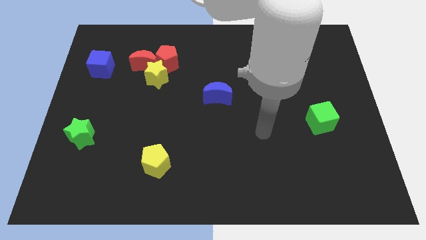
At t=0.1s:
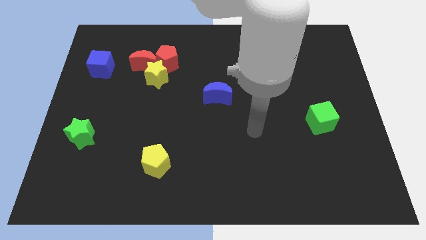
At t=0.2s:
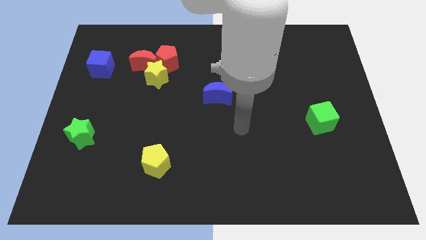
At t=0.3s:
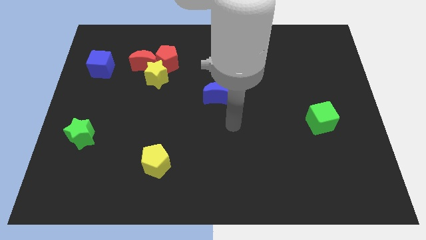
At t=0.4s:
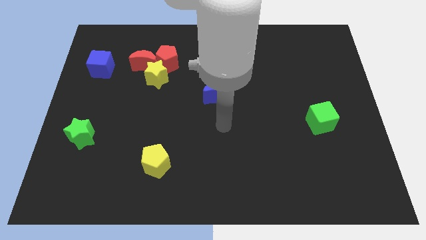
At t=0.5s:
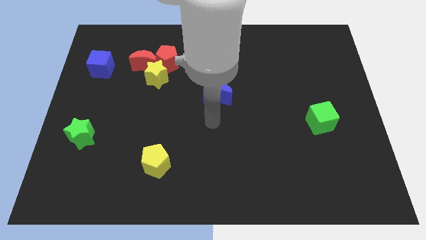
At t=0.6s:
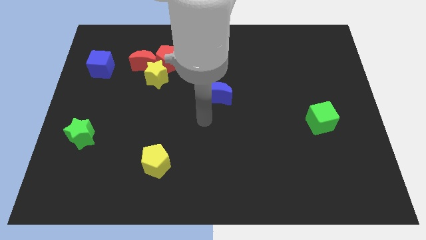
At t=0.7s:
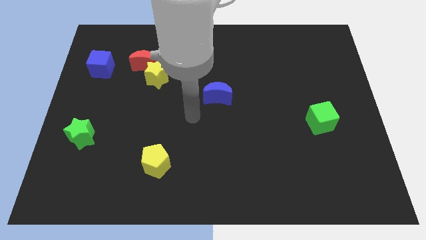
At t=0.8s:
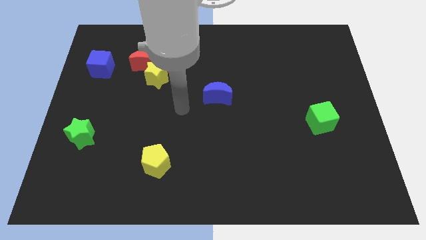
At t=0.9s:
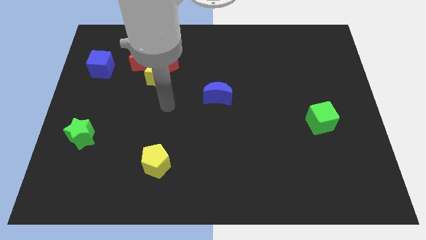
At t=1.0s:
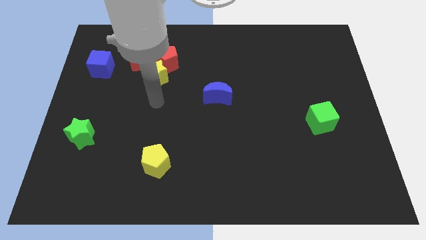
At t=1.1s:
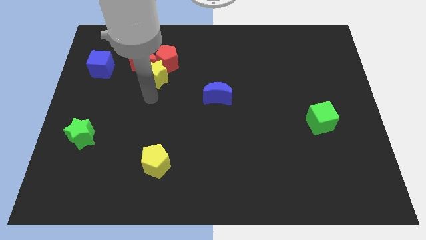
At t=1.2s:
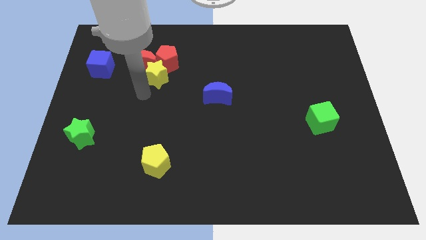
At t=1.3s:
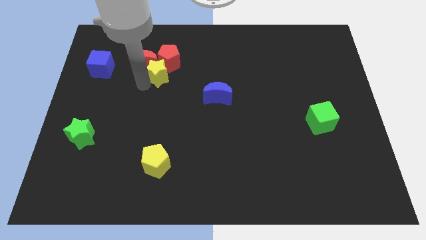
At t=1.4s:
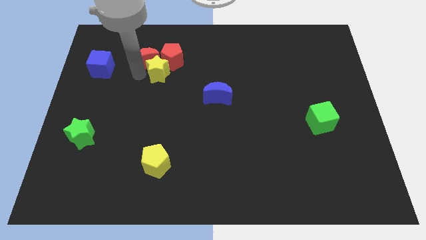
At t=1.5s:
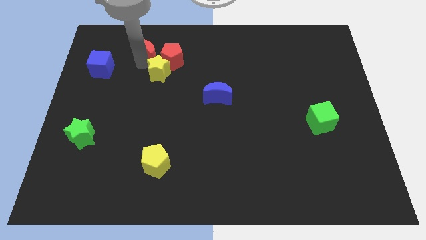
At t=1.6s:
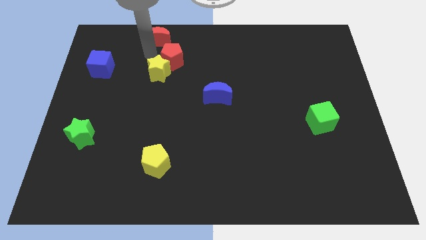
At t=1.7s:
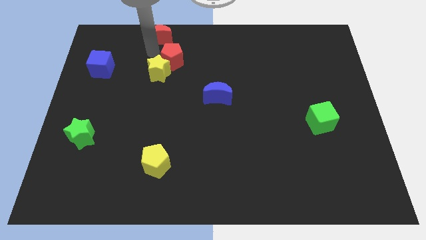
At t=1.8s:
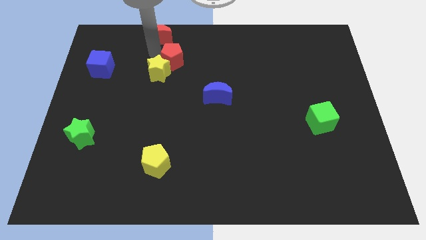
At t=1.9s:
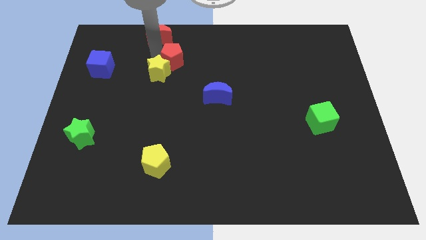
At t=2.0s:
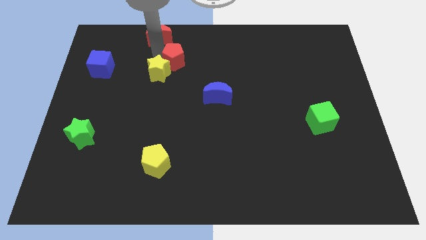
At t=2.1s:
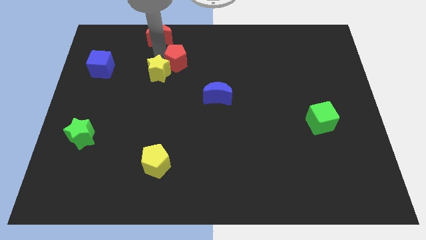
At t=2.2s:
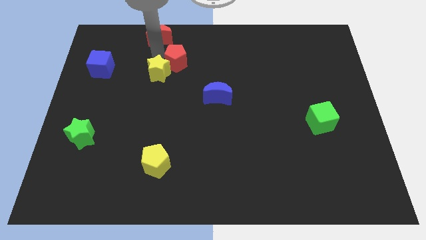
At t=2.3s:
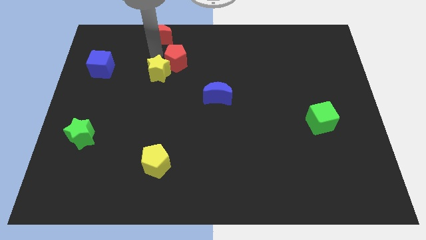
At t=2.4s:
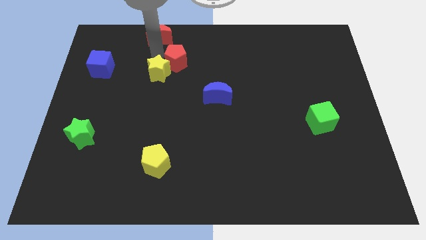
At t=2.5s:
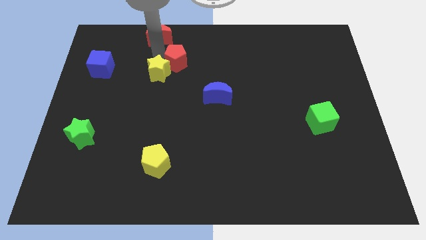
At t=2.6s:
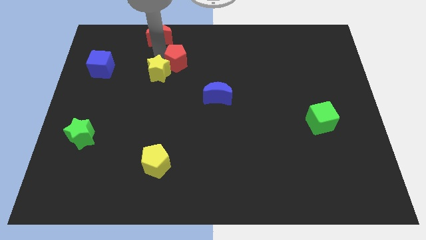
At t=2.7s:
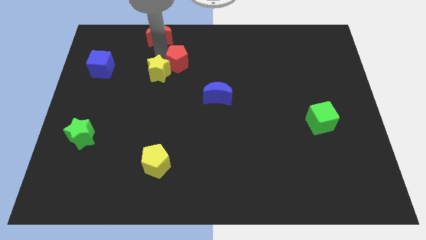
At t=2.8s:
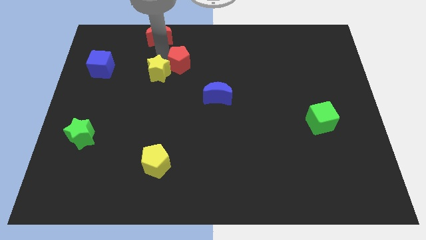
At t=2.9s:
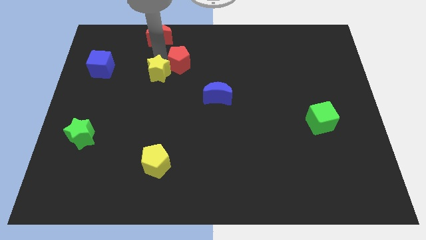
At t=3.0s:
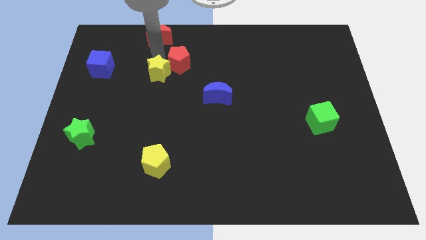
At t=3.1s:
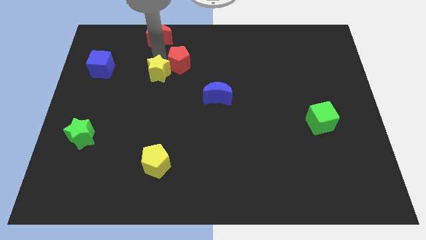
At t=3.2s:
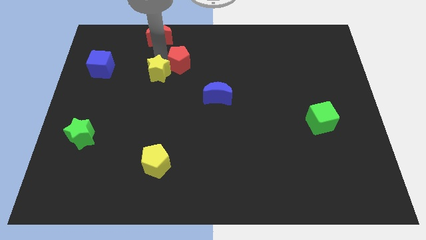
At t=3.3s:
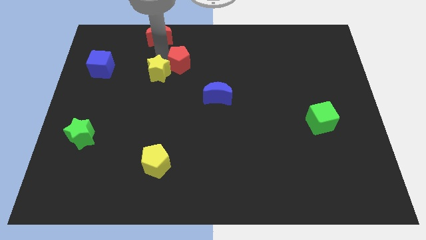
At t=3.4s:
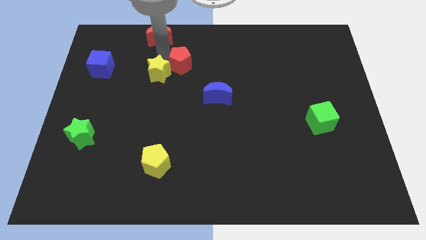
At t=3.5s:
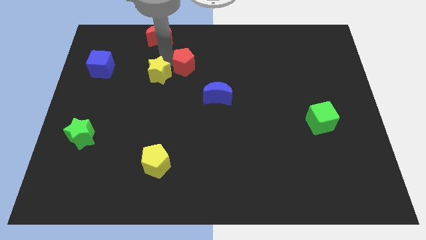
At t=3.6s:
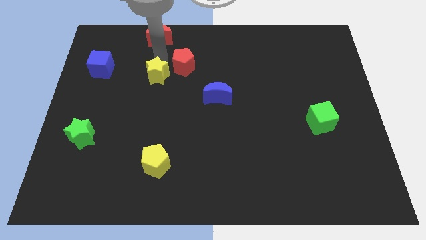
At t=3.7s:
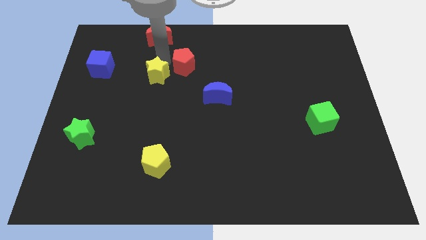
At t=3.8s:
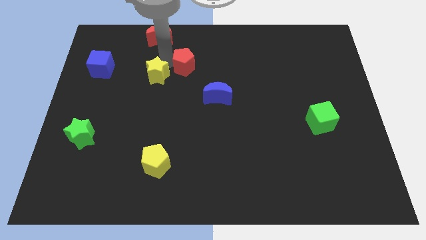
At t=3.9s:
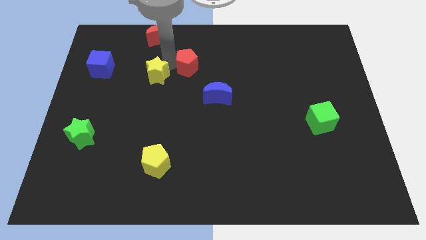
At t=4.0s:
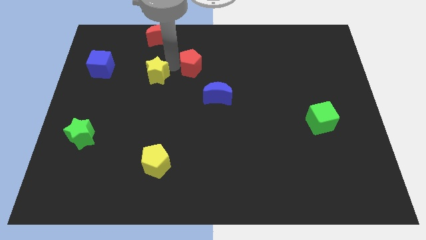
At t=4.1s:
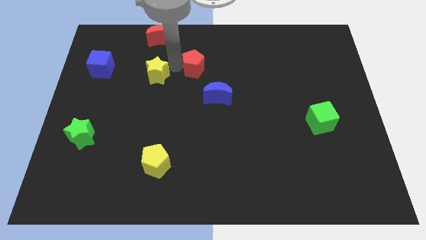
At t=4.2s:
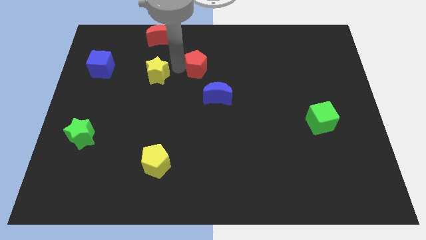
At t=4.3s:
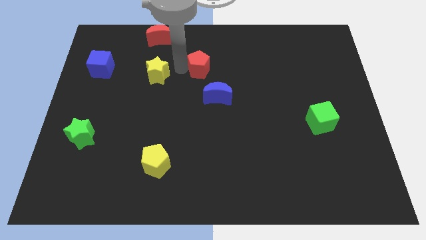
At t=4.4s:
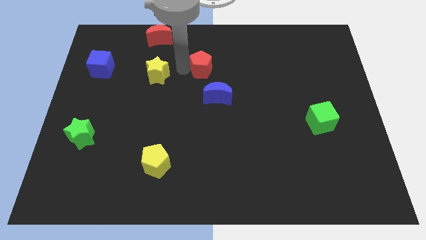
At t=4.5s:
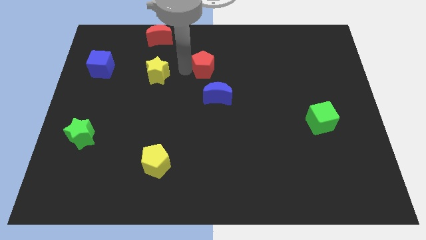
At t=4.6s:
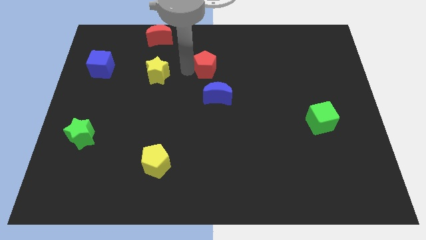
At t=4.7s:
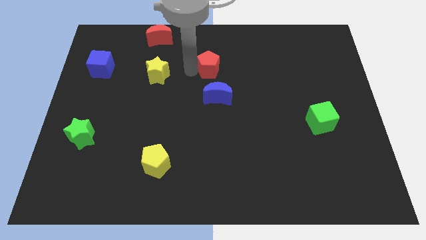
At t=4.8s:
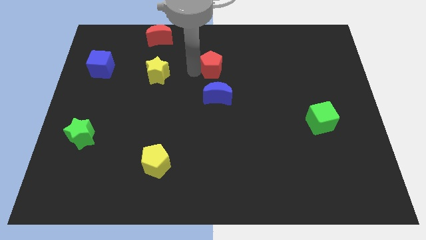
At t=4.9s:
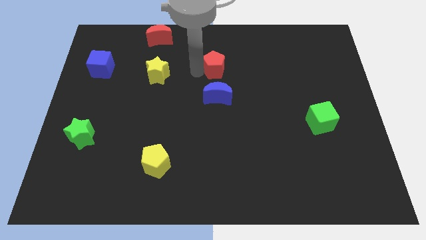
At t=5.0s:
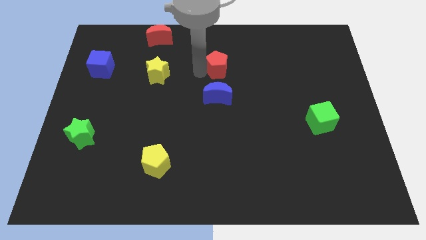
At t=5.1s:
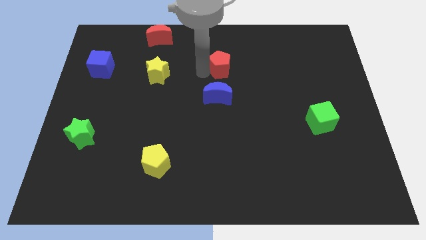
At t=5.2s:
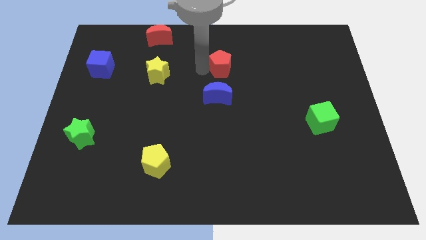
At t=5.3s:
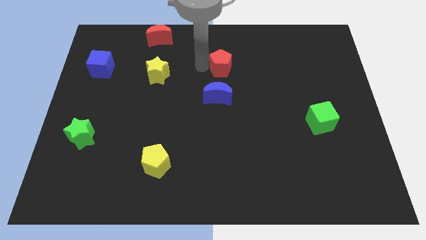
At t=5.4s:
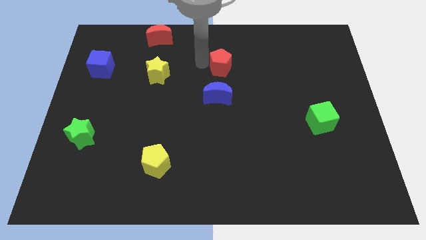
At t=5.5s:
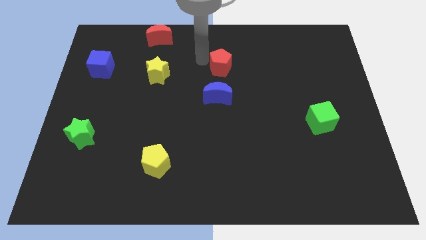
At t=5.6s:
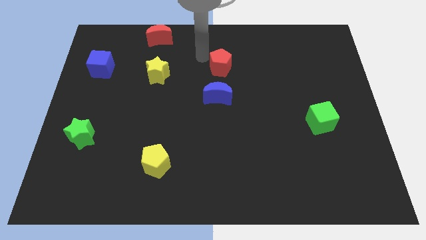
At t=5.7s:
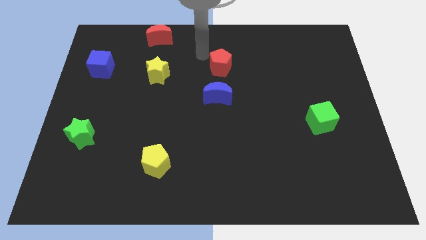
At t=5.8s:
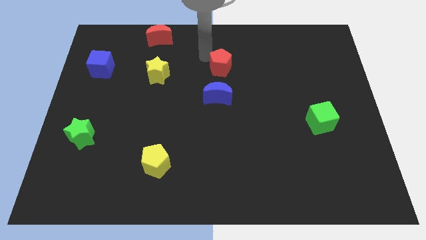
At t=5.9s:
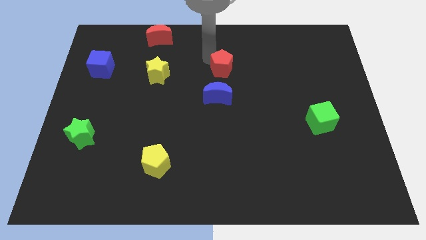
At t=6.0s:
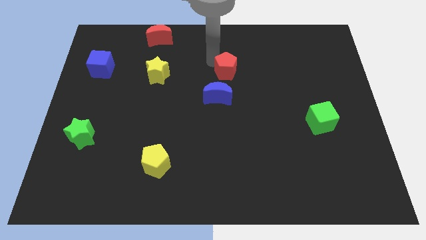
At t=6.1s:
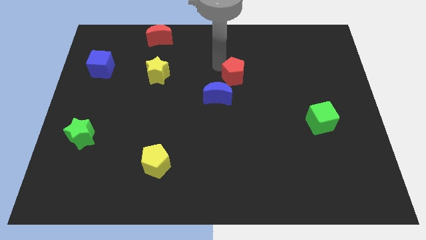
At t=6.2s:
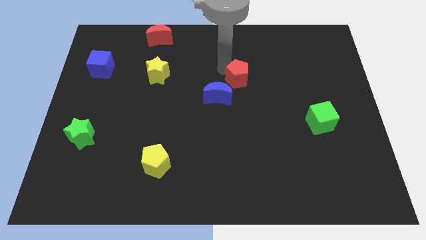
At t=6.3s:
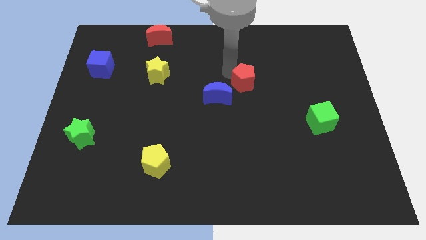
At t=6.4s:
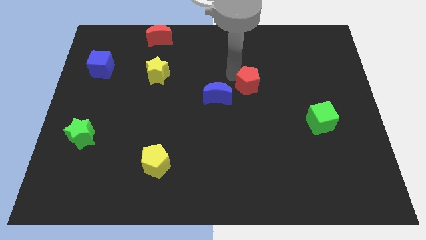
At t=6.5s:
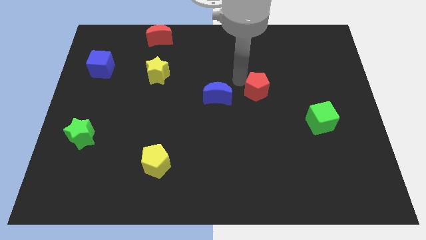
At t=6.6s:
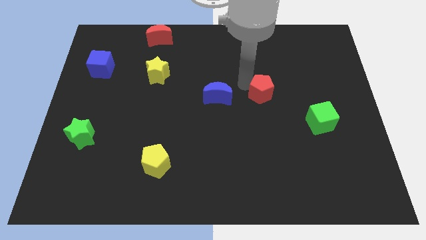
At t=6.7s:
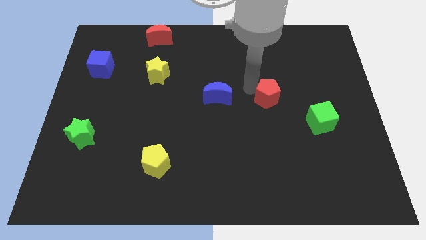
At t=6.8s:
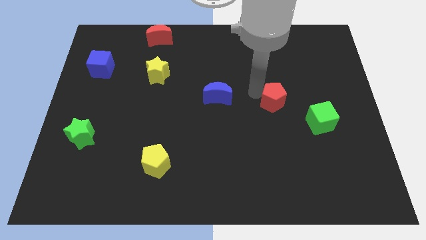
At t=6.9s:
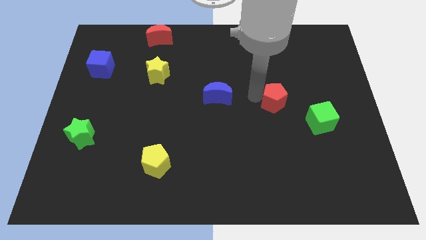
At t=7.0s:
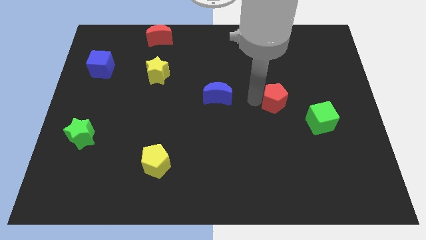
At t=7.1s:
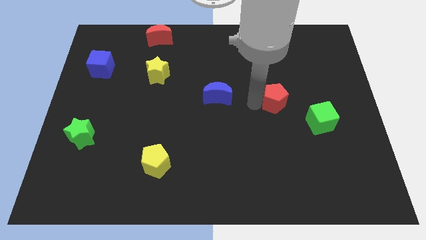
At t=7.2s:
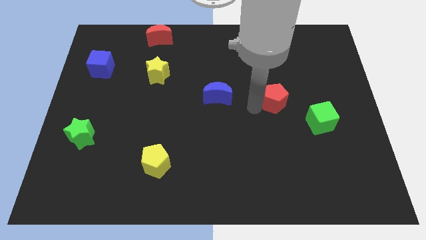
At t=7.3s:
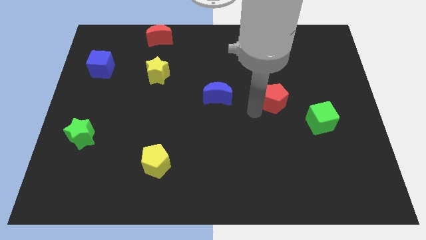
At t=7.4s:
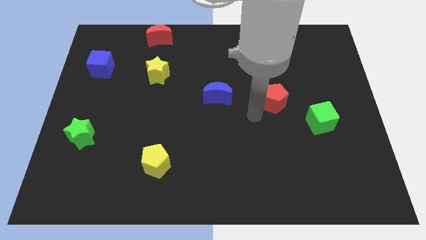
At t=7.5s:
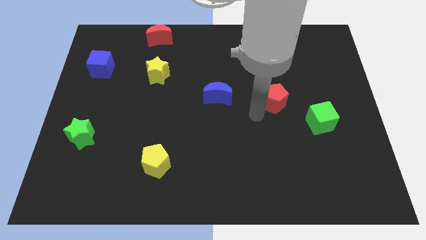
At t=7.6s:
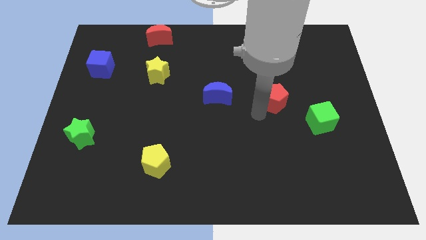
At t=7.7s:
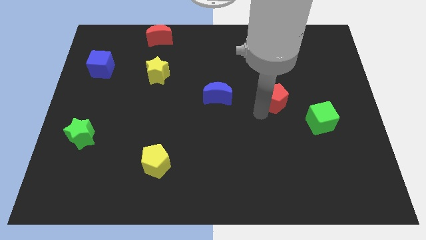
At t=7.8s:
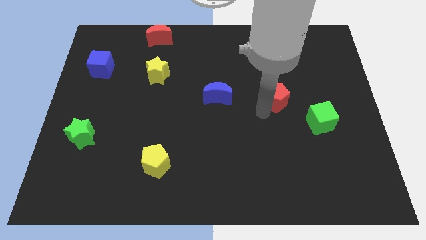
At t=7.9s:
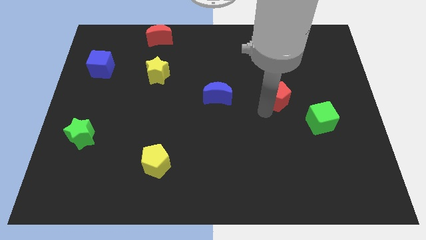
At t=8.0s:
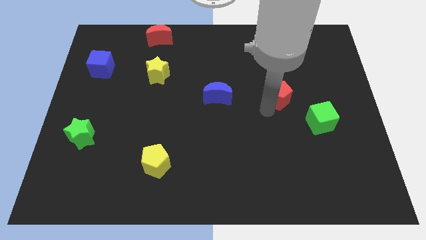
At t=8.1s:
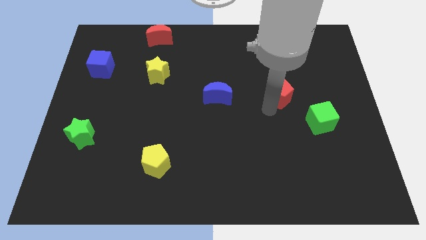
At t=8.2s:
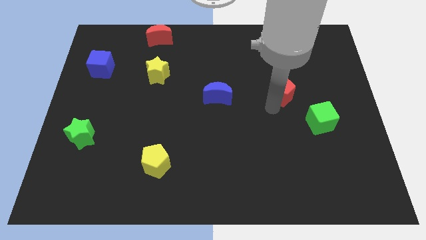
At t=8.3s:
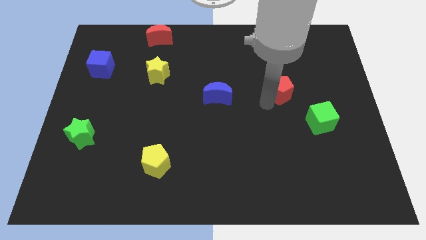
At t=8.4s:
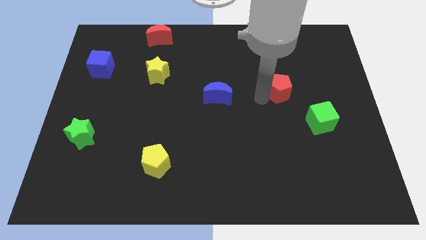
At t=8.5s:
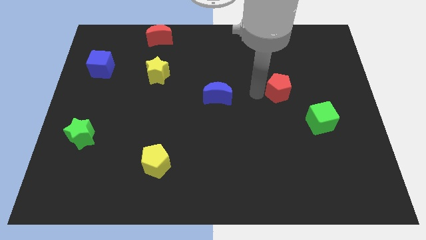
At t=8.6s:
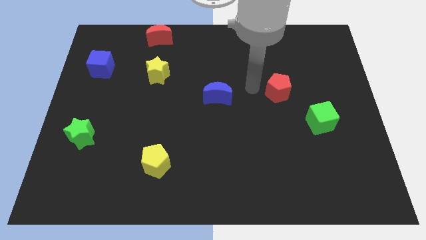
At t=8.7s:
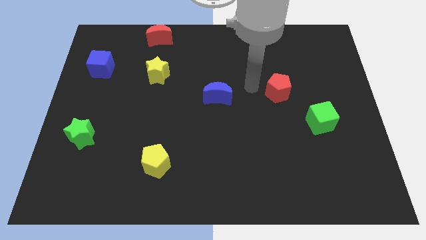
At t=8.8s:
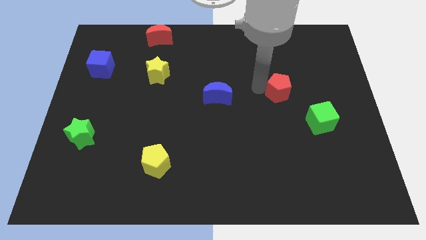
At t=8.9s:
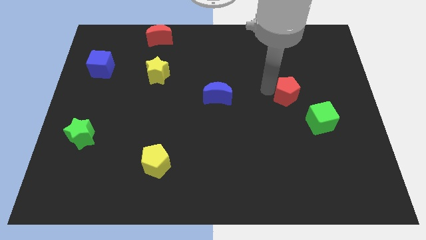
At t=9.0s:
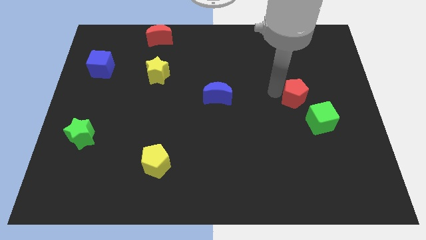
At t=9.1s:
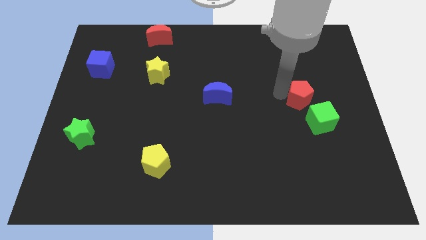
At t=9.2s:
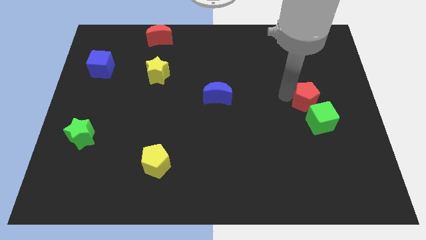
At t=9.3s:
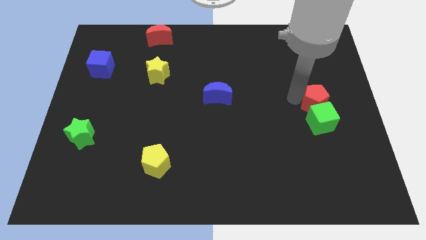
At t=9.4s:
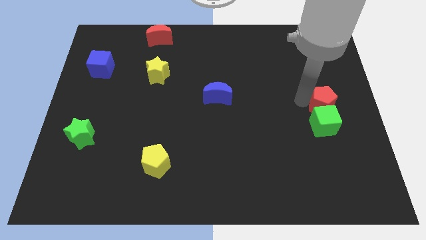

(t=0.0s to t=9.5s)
slide the red pentagon to the right side of the board
